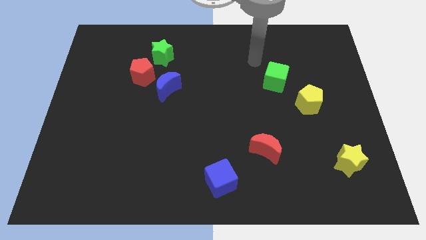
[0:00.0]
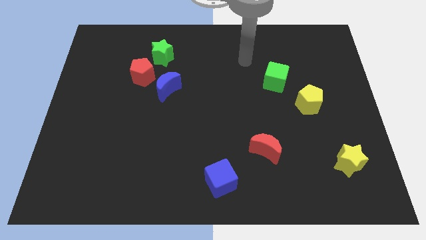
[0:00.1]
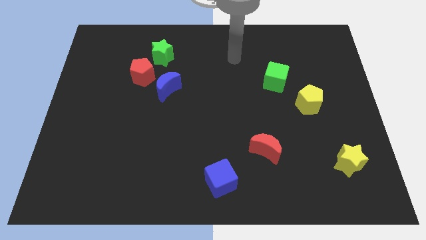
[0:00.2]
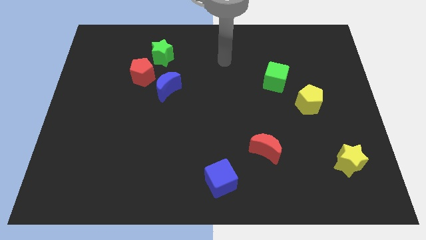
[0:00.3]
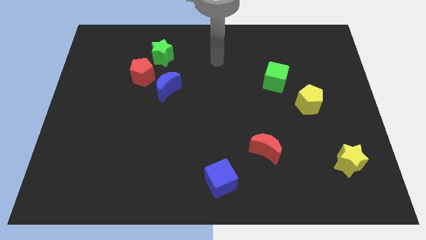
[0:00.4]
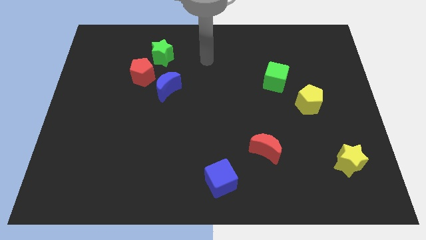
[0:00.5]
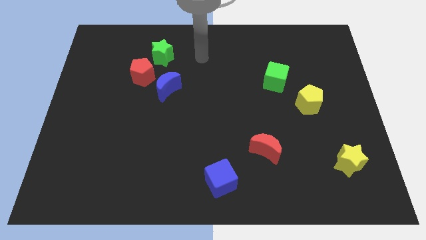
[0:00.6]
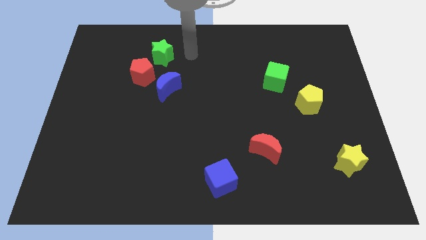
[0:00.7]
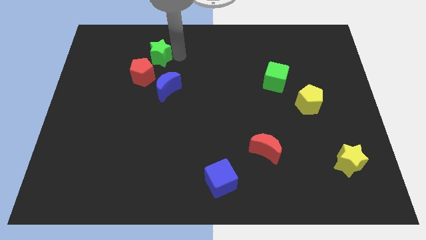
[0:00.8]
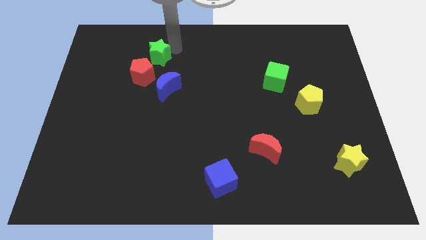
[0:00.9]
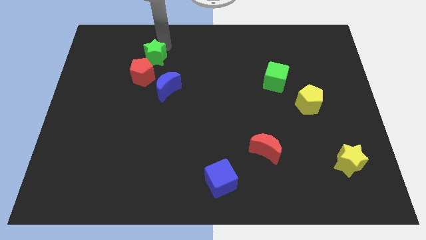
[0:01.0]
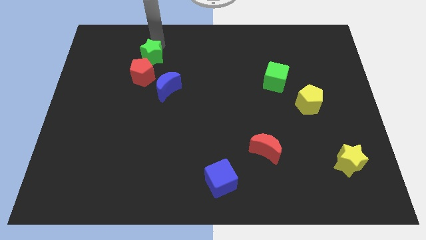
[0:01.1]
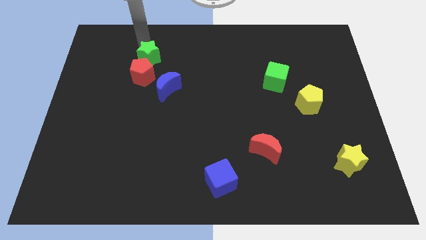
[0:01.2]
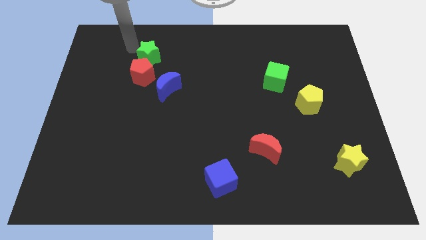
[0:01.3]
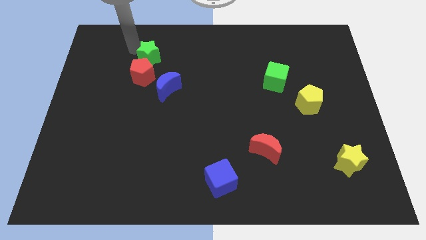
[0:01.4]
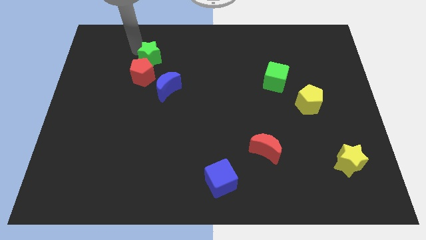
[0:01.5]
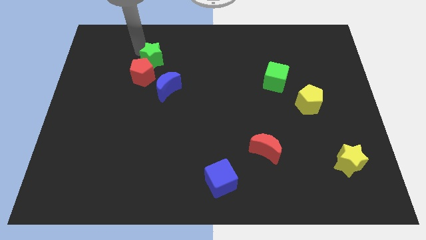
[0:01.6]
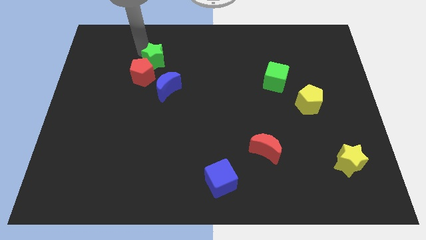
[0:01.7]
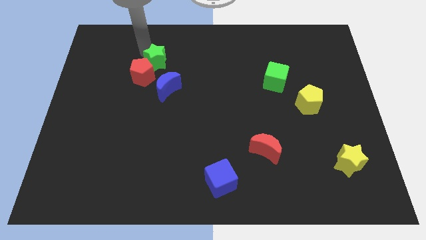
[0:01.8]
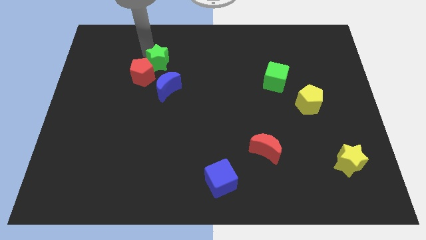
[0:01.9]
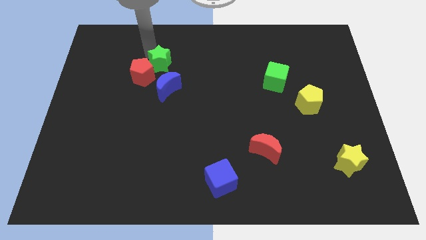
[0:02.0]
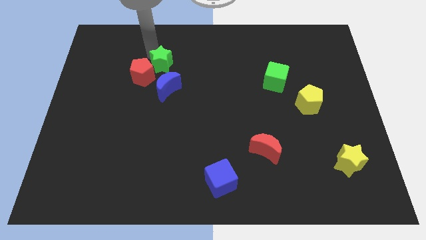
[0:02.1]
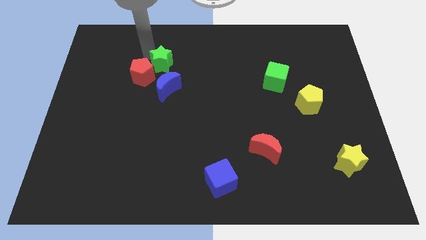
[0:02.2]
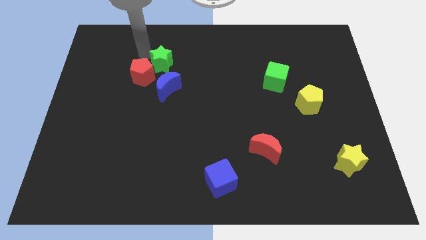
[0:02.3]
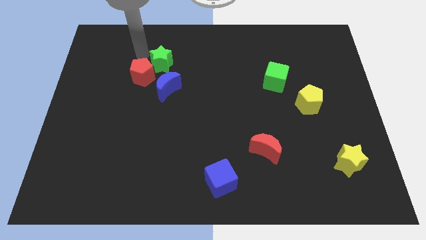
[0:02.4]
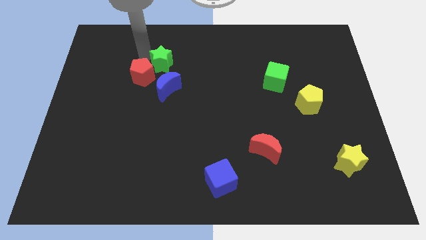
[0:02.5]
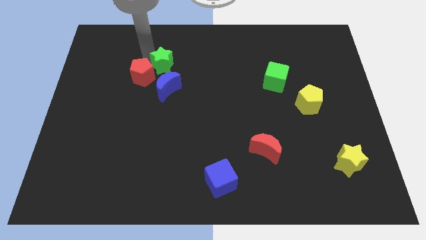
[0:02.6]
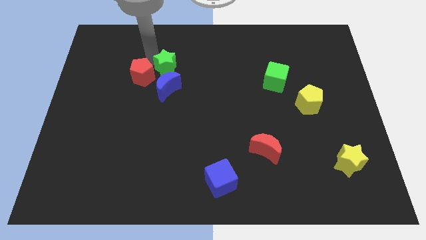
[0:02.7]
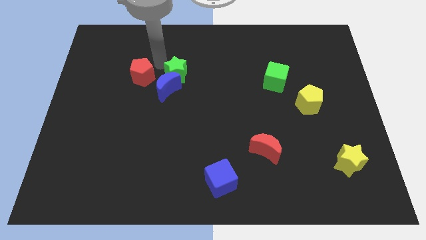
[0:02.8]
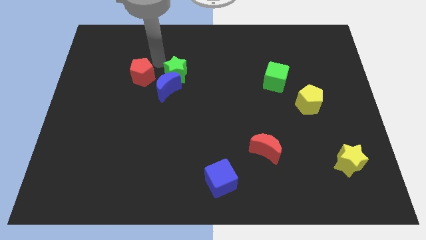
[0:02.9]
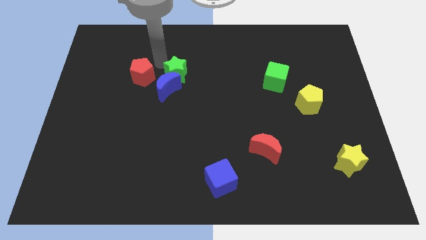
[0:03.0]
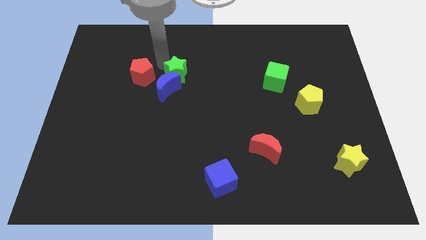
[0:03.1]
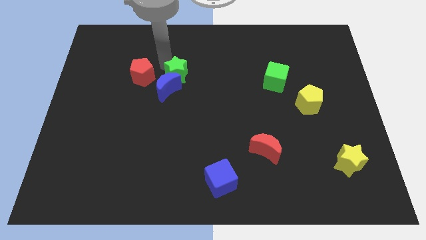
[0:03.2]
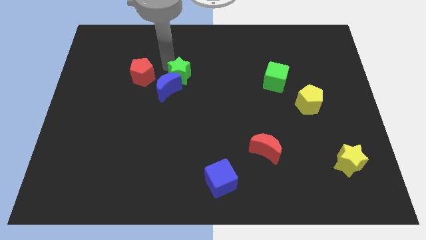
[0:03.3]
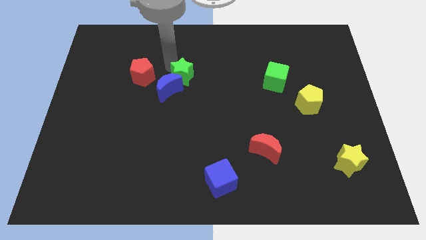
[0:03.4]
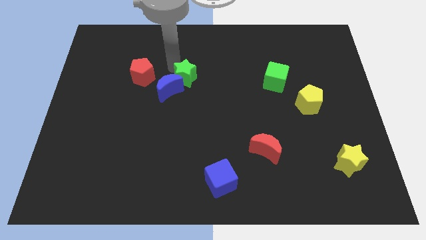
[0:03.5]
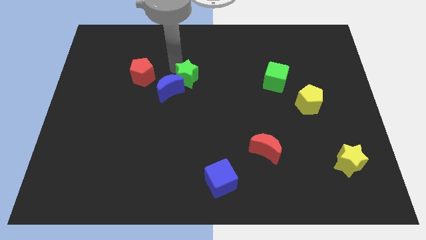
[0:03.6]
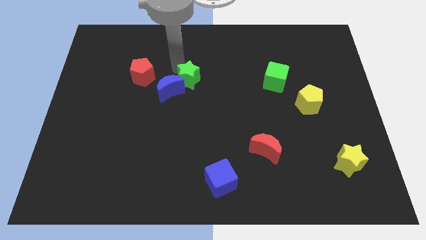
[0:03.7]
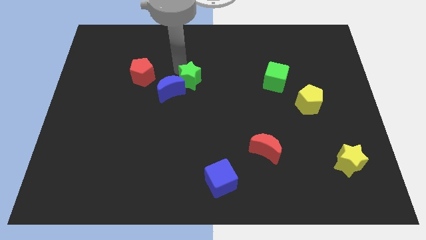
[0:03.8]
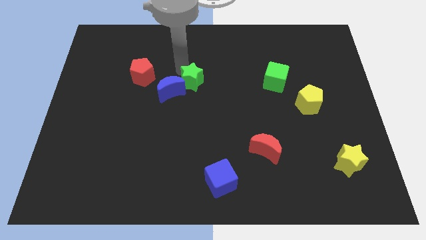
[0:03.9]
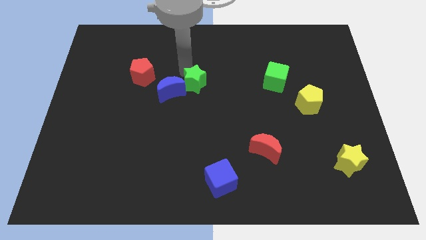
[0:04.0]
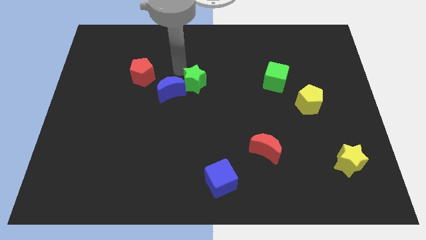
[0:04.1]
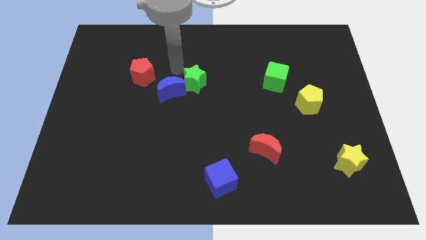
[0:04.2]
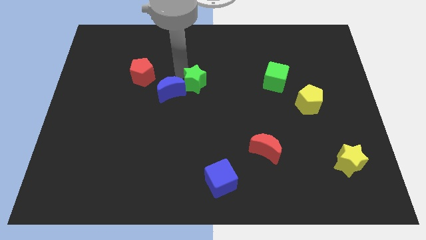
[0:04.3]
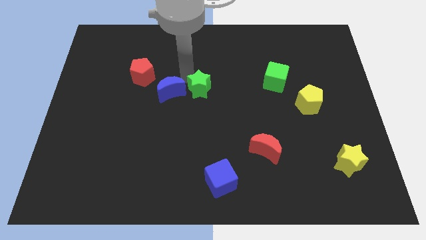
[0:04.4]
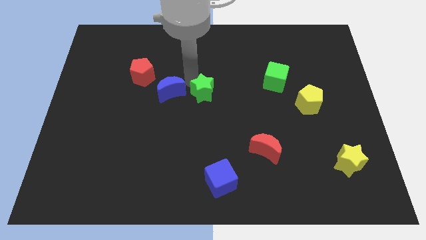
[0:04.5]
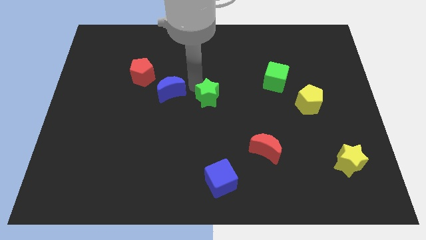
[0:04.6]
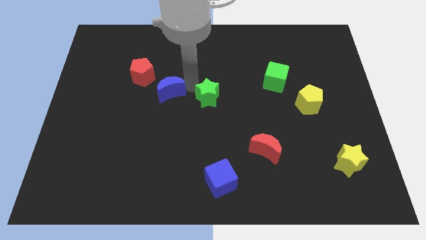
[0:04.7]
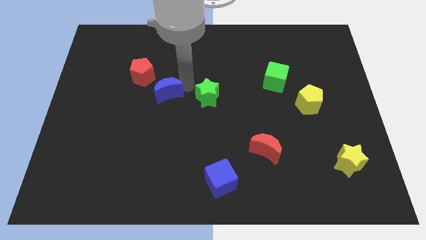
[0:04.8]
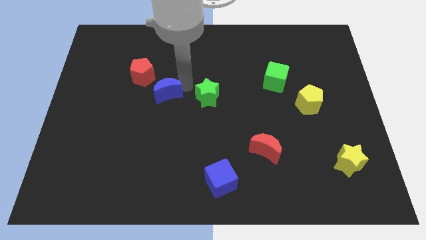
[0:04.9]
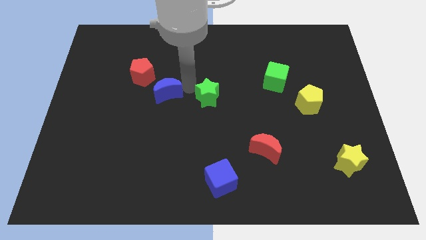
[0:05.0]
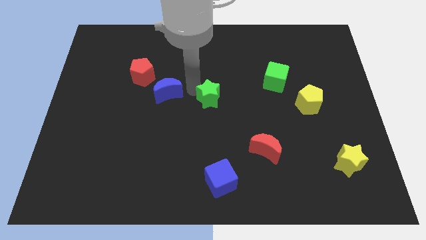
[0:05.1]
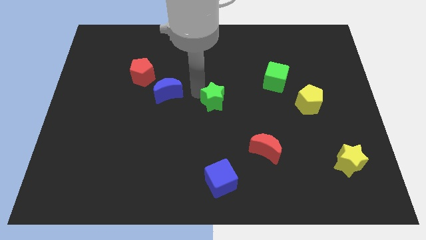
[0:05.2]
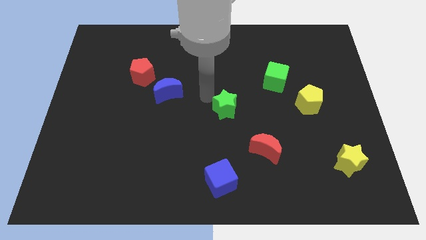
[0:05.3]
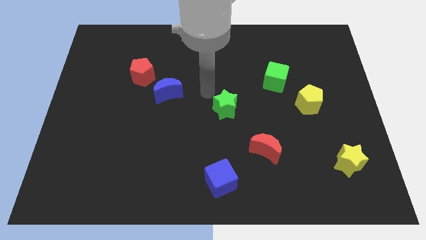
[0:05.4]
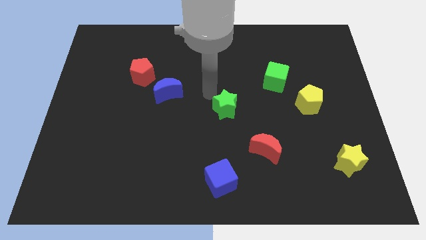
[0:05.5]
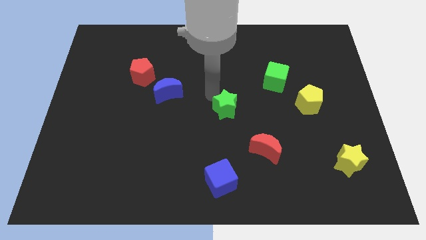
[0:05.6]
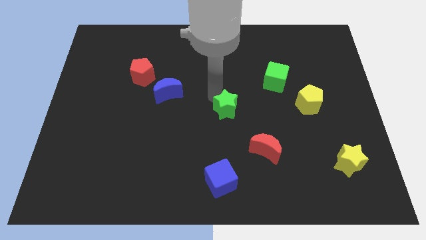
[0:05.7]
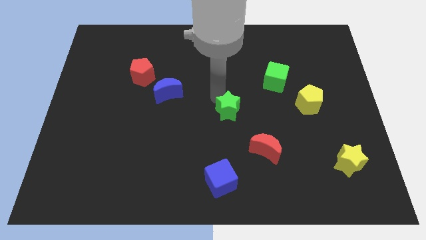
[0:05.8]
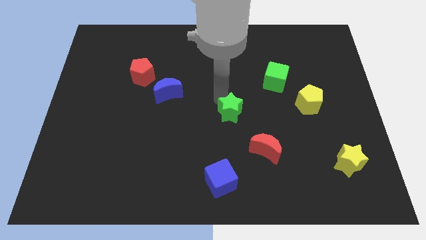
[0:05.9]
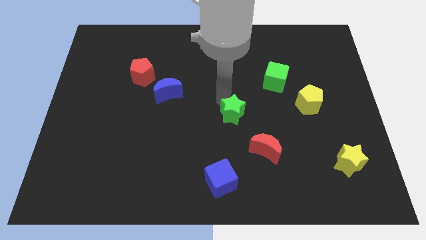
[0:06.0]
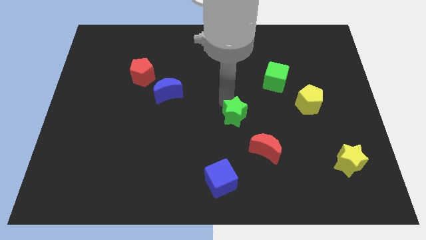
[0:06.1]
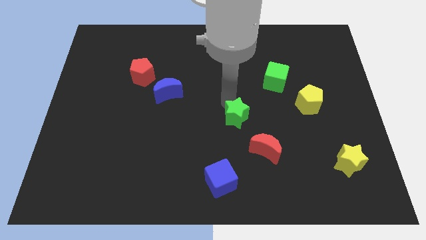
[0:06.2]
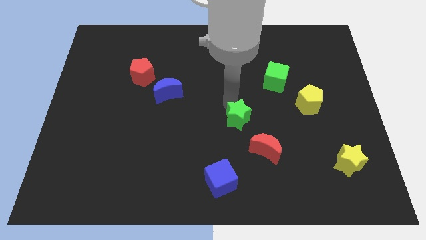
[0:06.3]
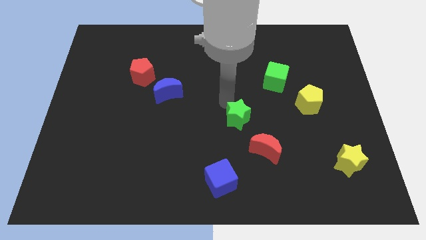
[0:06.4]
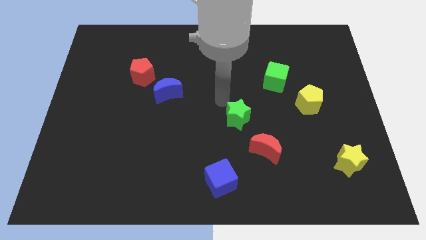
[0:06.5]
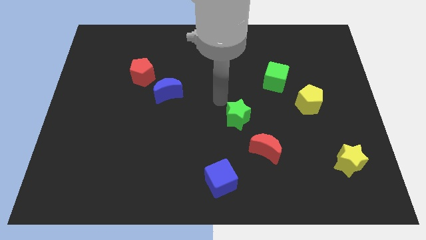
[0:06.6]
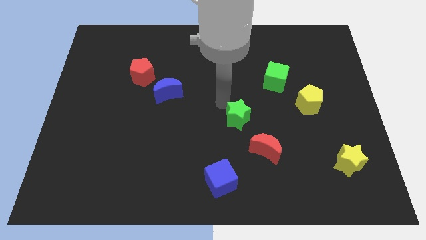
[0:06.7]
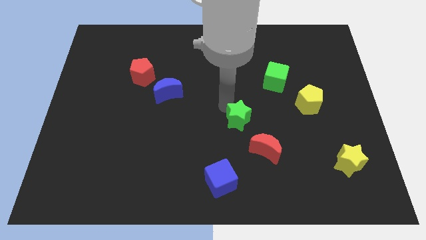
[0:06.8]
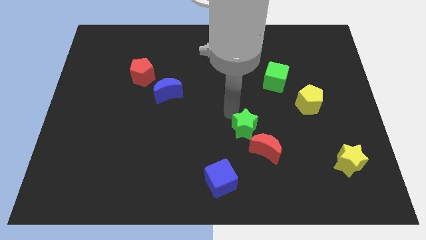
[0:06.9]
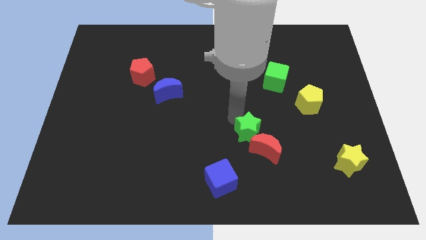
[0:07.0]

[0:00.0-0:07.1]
put the green star to the red moon

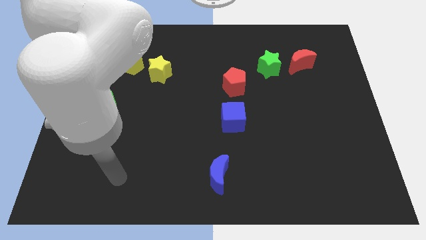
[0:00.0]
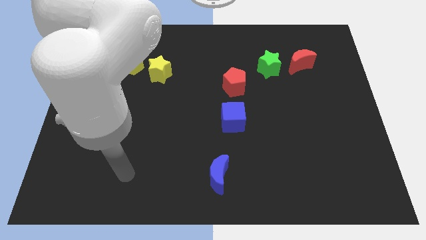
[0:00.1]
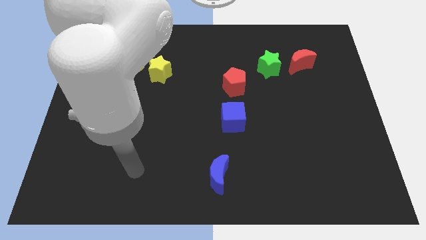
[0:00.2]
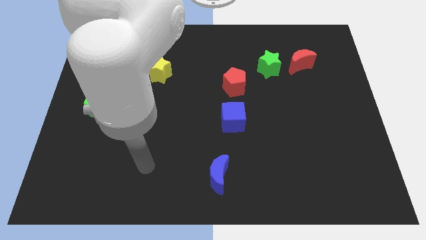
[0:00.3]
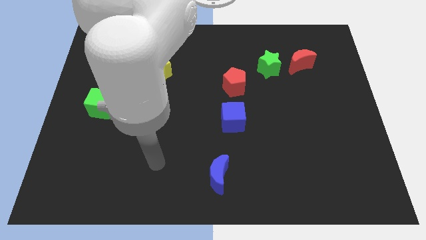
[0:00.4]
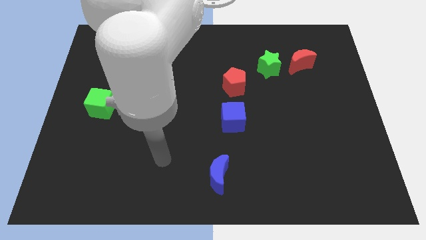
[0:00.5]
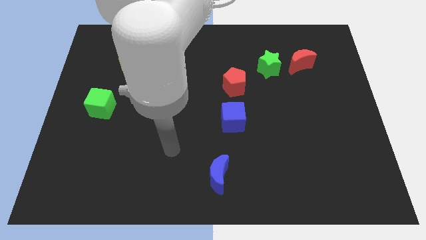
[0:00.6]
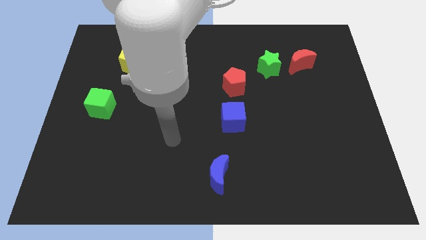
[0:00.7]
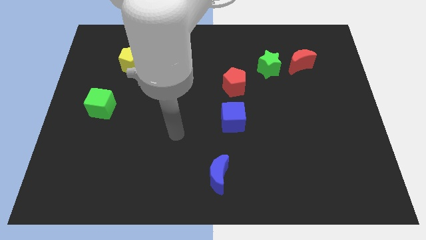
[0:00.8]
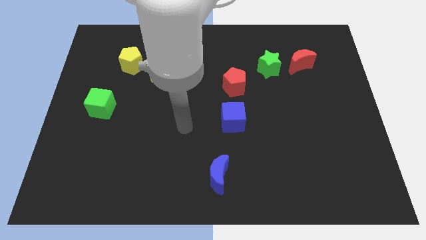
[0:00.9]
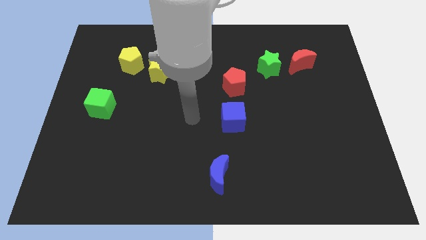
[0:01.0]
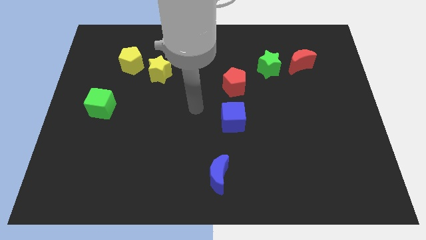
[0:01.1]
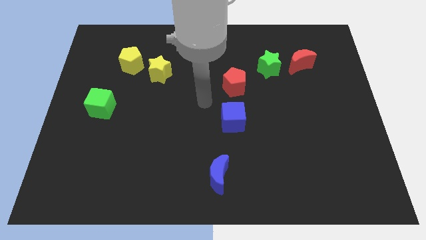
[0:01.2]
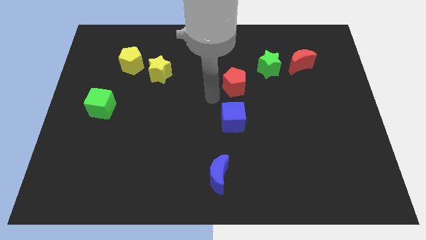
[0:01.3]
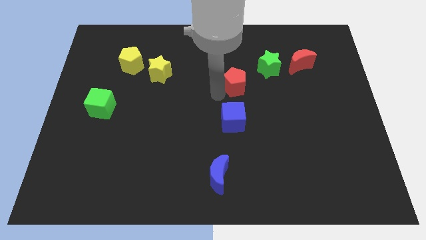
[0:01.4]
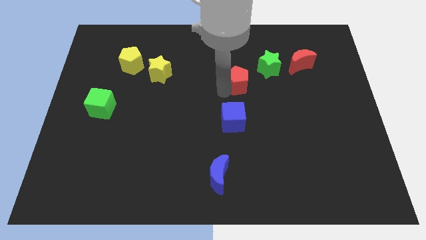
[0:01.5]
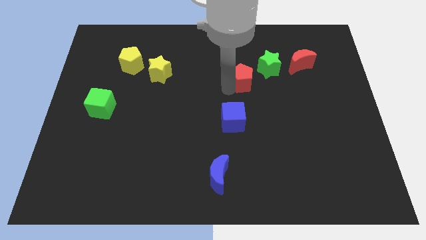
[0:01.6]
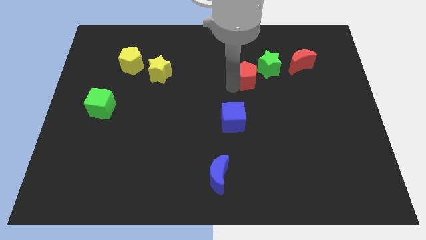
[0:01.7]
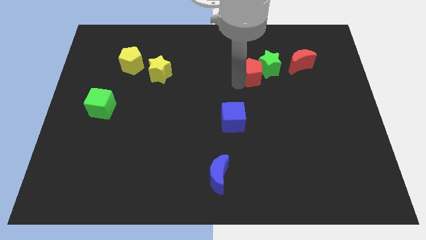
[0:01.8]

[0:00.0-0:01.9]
put the red pentagon to the green star
